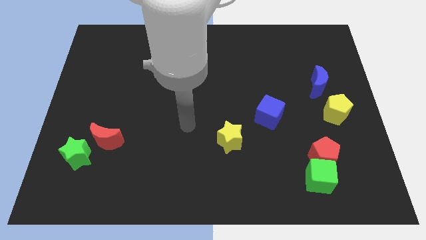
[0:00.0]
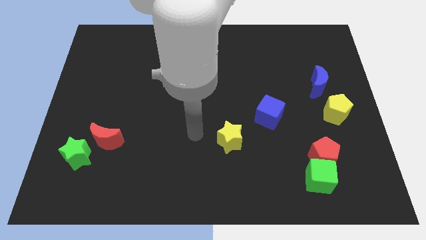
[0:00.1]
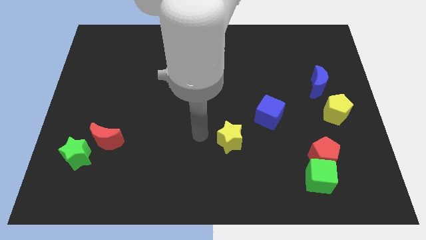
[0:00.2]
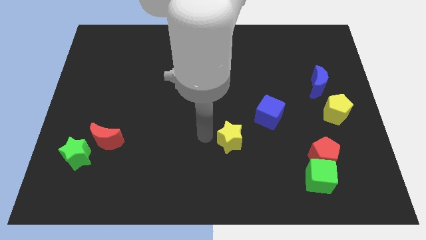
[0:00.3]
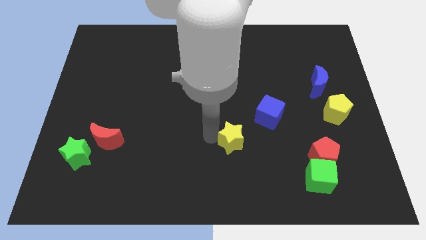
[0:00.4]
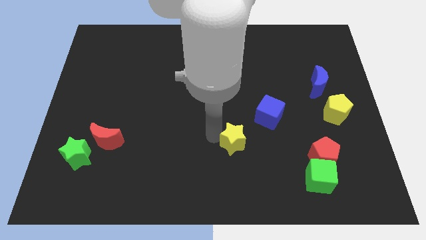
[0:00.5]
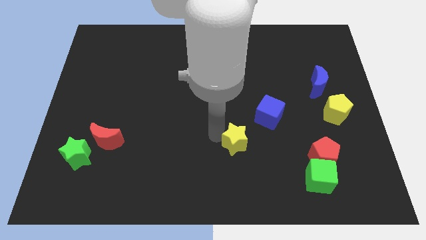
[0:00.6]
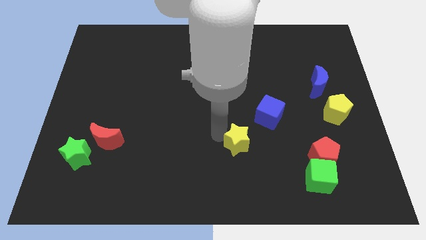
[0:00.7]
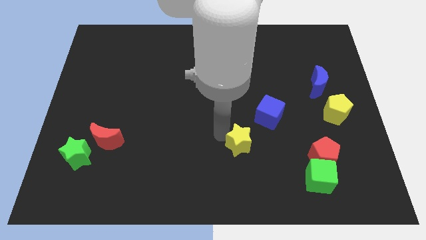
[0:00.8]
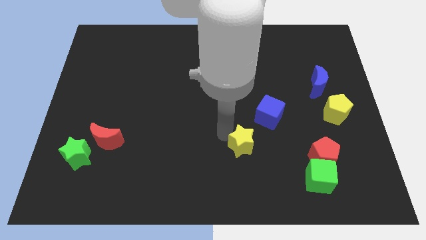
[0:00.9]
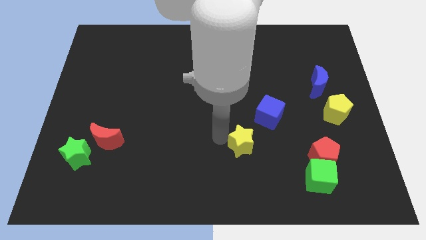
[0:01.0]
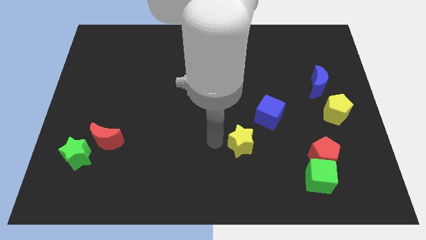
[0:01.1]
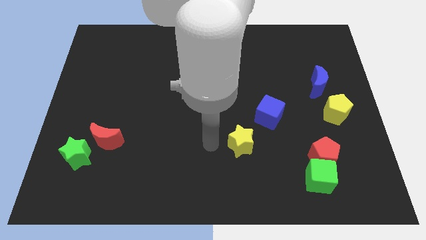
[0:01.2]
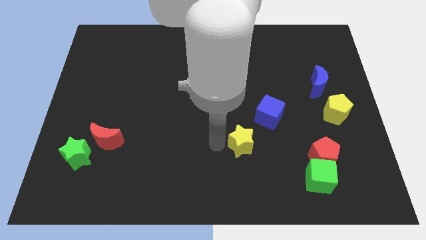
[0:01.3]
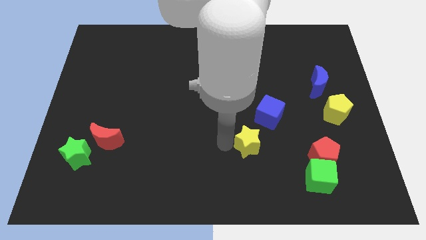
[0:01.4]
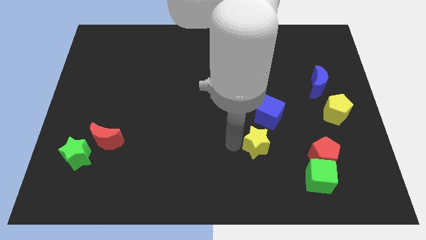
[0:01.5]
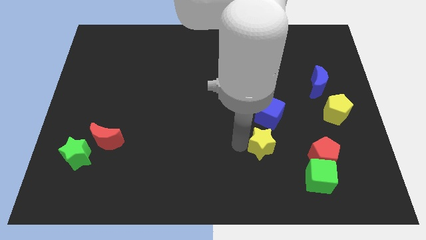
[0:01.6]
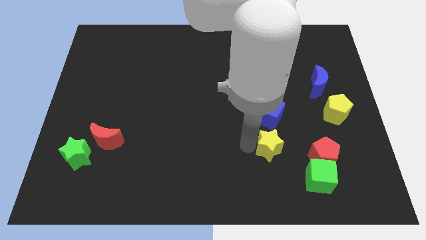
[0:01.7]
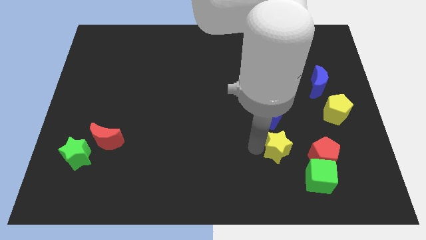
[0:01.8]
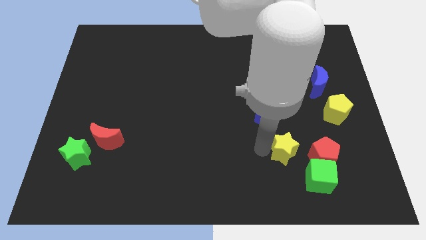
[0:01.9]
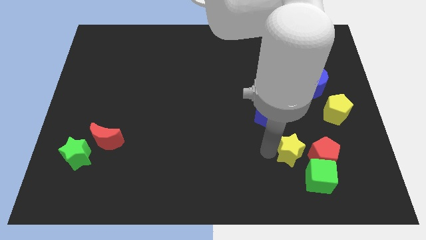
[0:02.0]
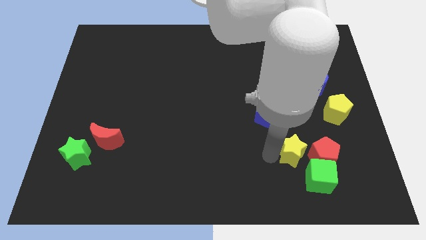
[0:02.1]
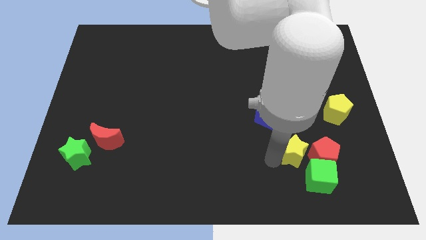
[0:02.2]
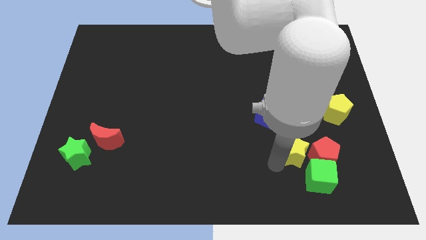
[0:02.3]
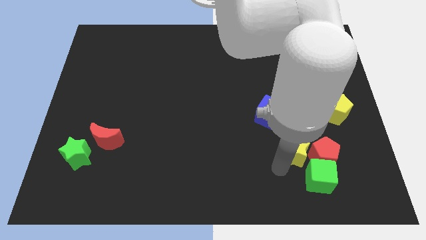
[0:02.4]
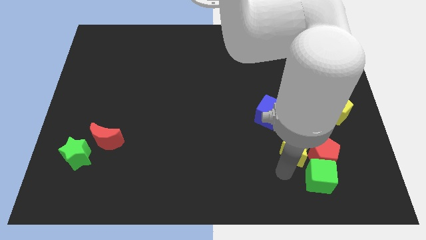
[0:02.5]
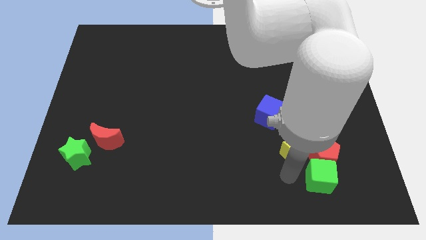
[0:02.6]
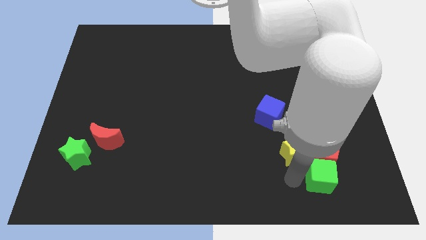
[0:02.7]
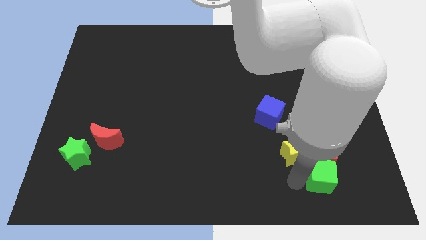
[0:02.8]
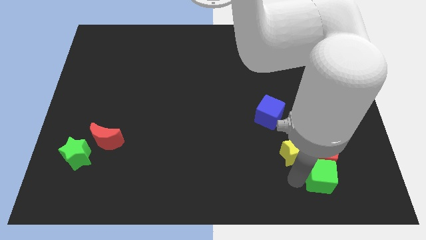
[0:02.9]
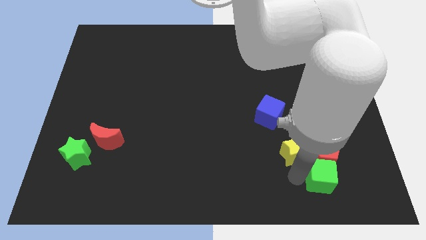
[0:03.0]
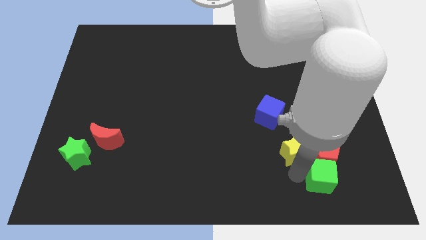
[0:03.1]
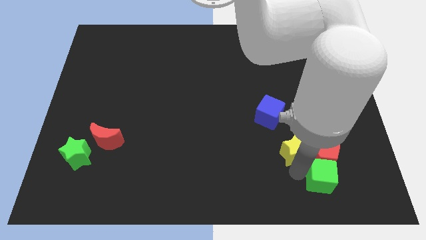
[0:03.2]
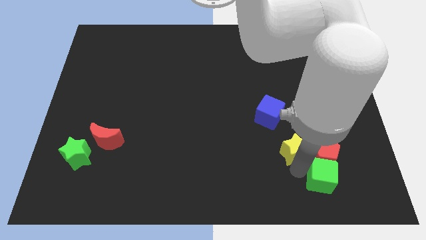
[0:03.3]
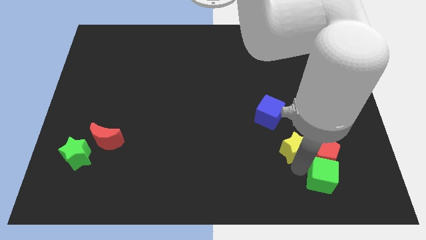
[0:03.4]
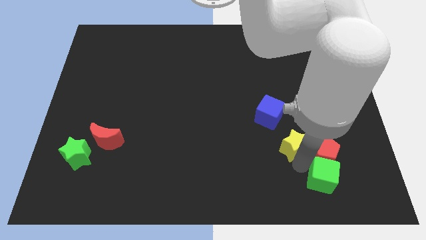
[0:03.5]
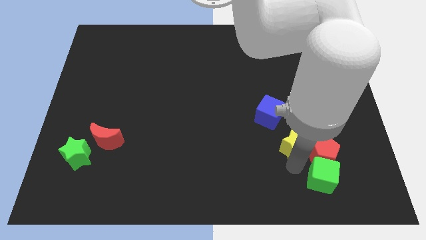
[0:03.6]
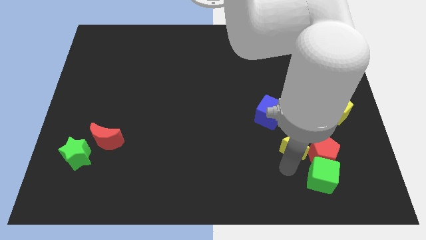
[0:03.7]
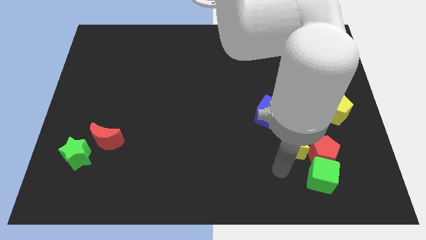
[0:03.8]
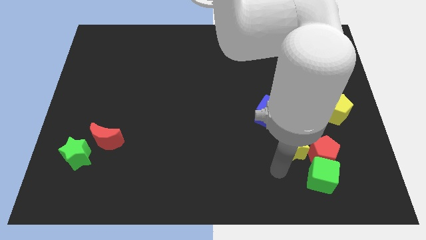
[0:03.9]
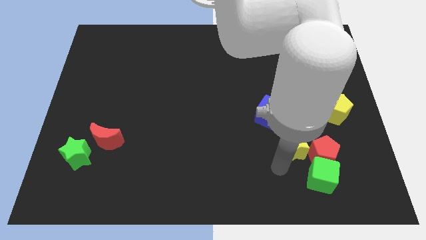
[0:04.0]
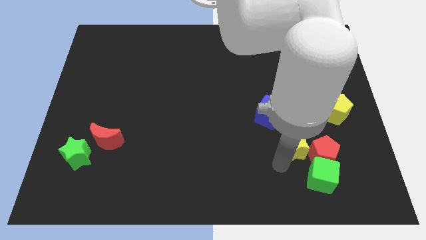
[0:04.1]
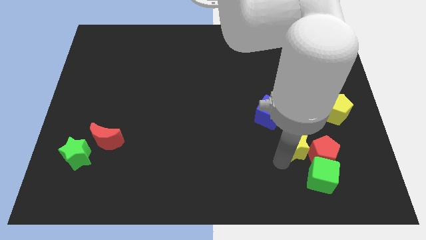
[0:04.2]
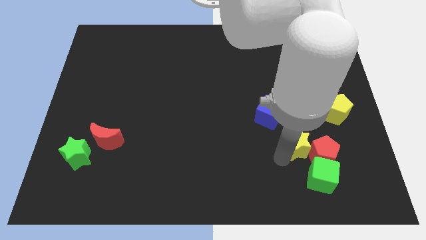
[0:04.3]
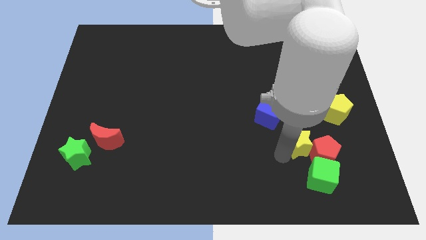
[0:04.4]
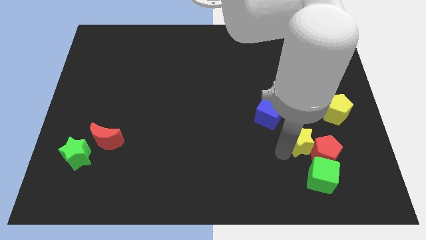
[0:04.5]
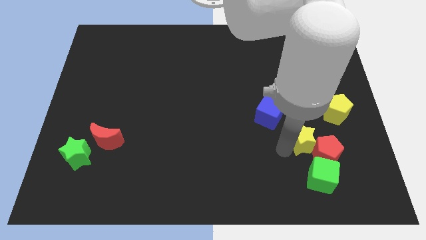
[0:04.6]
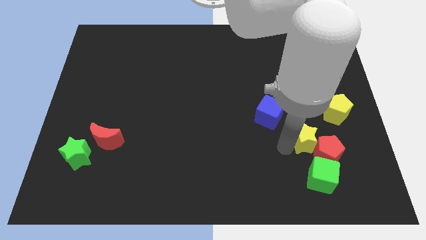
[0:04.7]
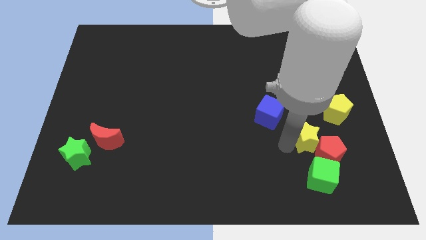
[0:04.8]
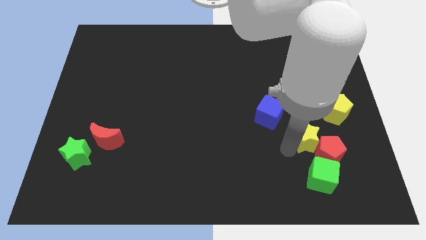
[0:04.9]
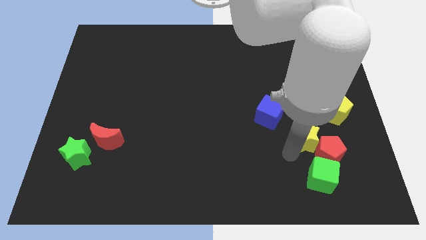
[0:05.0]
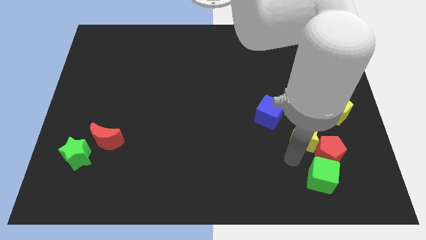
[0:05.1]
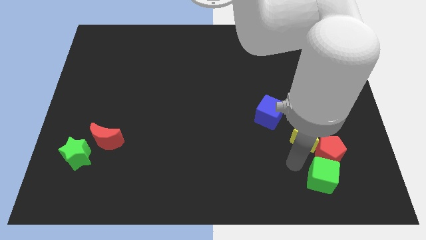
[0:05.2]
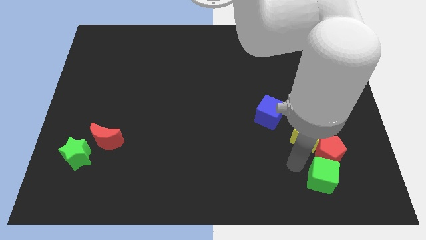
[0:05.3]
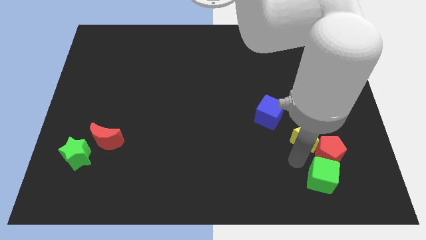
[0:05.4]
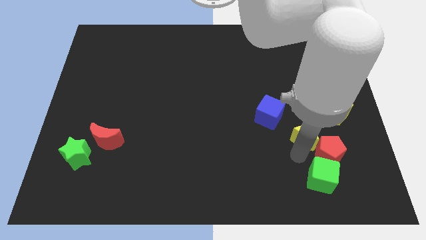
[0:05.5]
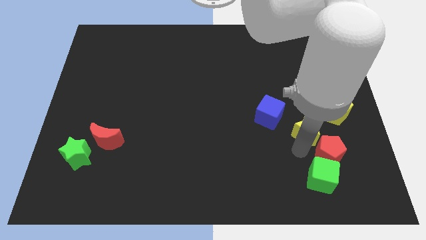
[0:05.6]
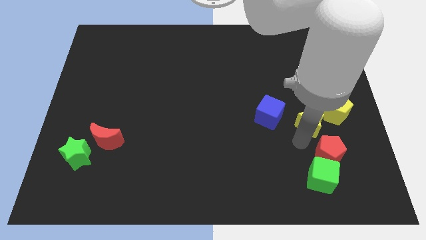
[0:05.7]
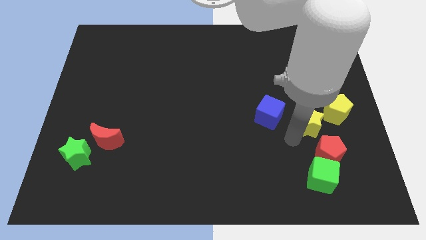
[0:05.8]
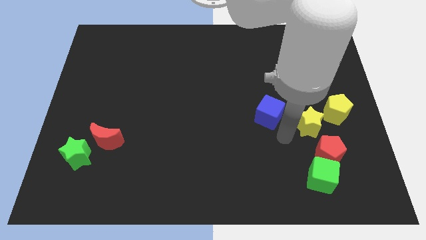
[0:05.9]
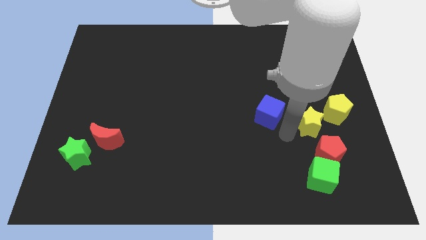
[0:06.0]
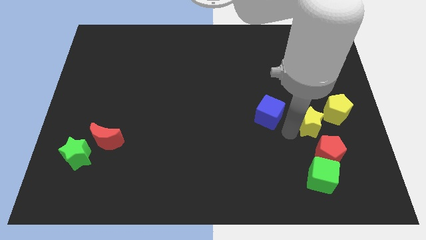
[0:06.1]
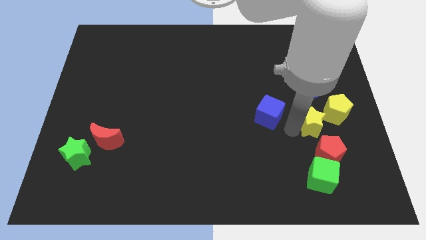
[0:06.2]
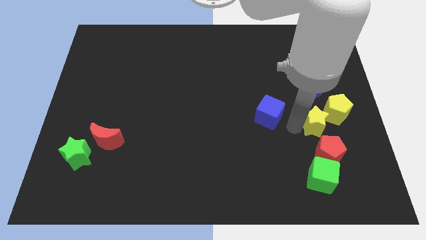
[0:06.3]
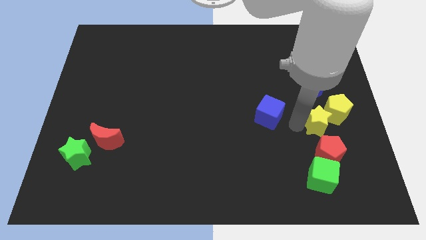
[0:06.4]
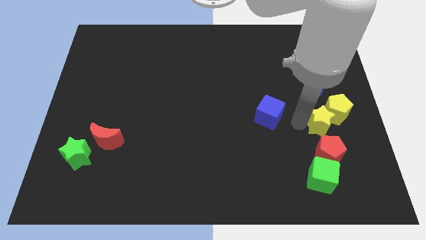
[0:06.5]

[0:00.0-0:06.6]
push the yellow star next to the yellow pentagon

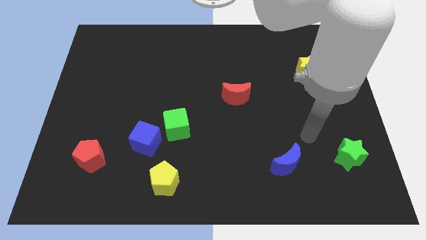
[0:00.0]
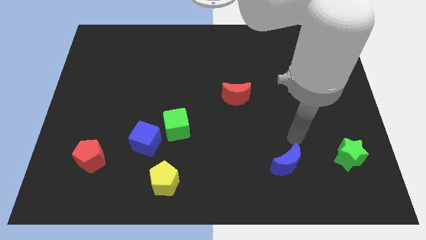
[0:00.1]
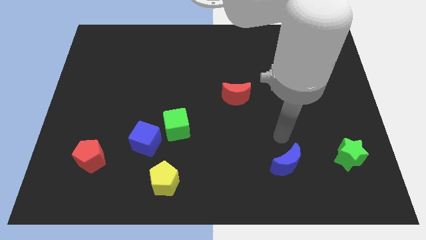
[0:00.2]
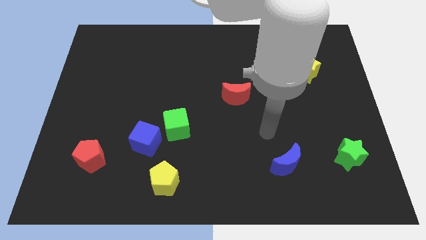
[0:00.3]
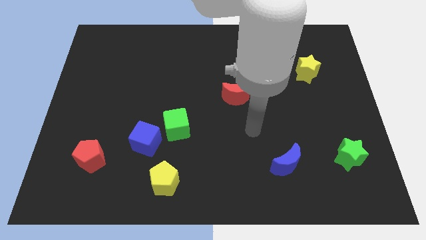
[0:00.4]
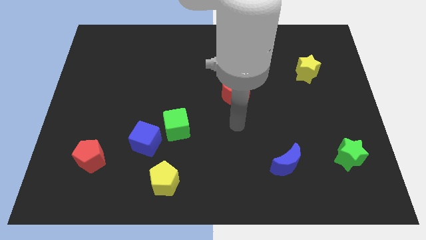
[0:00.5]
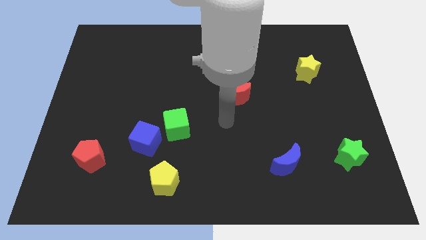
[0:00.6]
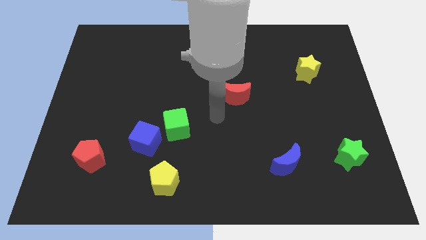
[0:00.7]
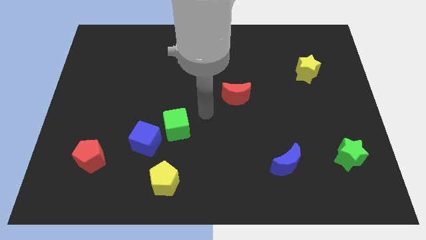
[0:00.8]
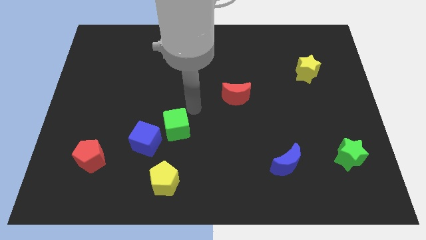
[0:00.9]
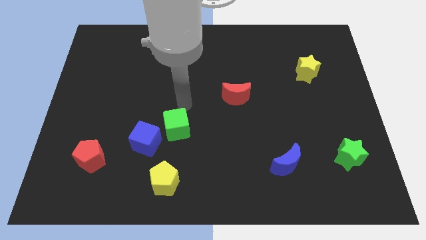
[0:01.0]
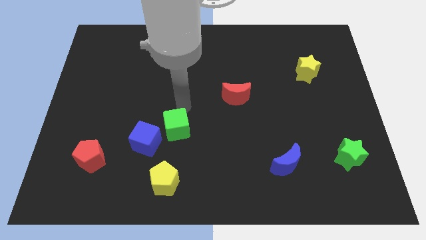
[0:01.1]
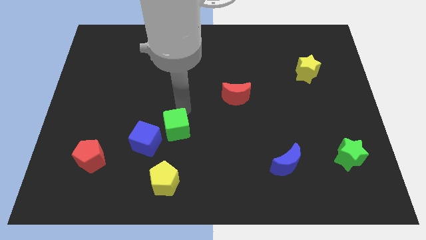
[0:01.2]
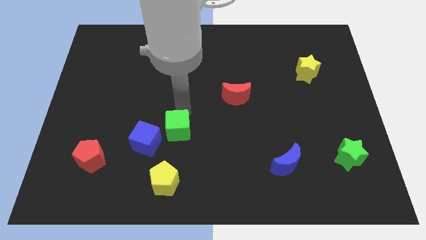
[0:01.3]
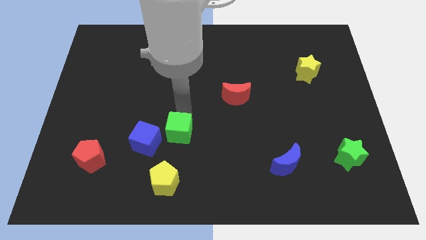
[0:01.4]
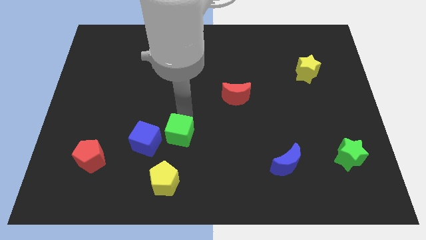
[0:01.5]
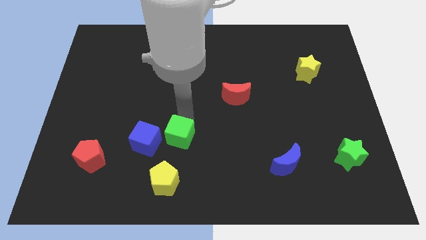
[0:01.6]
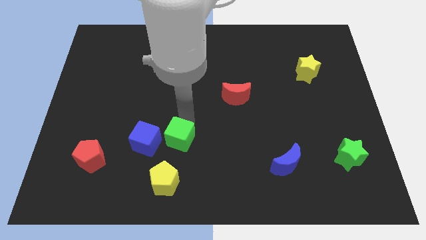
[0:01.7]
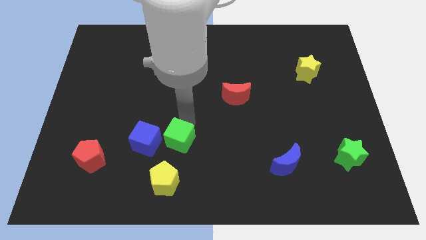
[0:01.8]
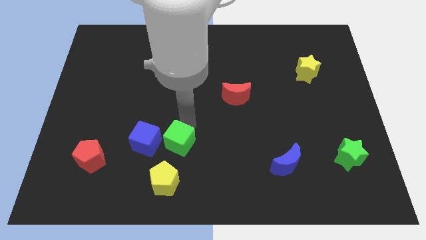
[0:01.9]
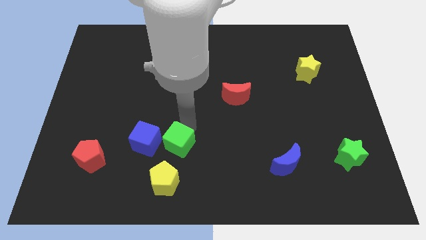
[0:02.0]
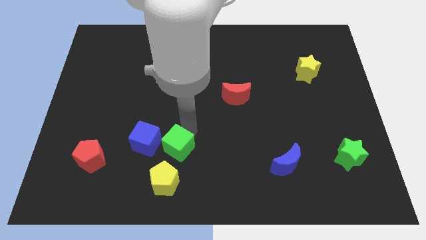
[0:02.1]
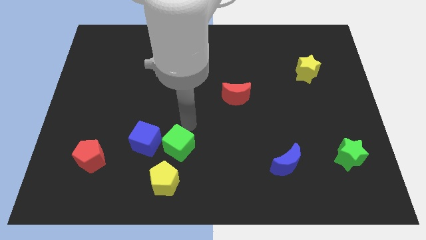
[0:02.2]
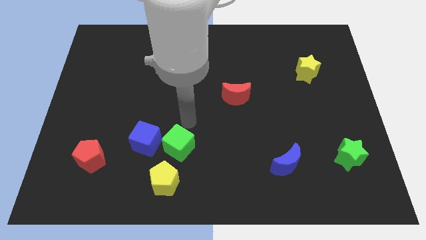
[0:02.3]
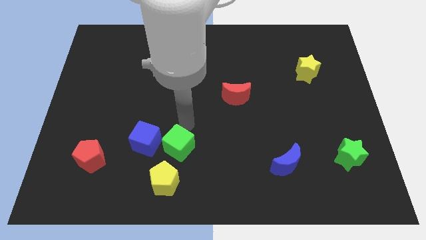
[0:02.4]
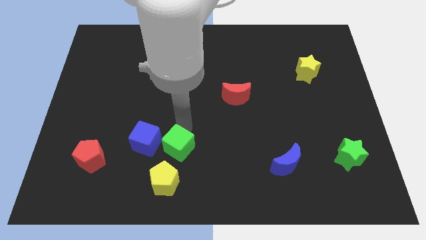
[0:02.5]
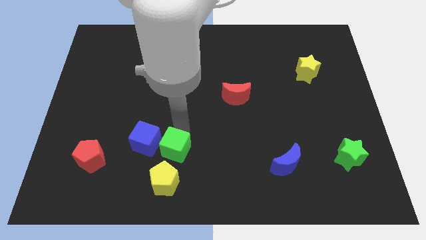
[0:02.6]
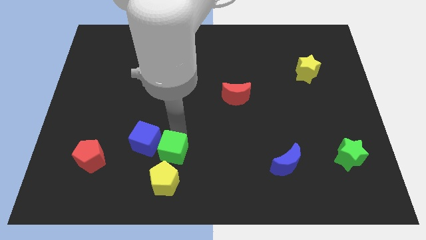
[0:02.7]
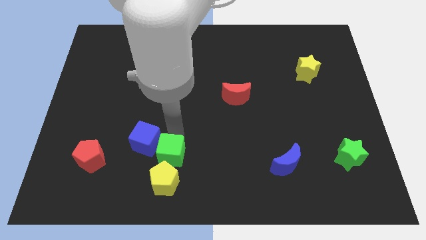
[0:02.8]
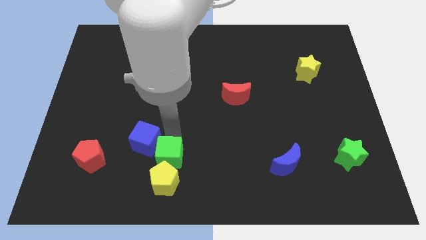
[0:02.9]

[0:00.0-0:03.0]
push the green cube towards the yellow pentagon
